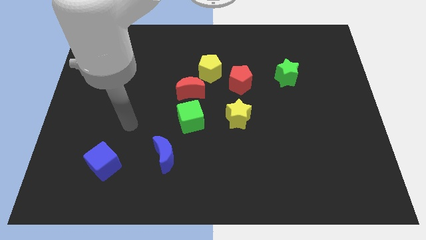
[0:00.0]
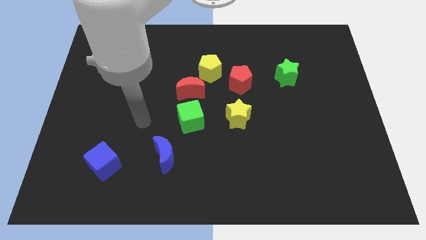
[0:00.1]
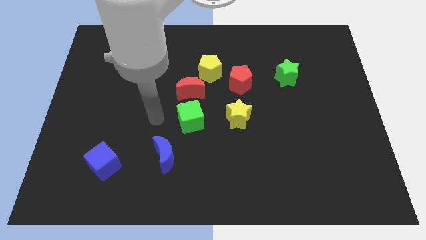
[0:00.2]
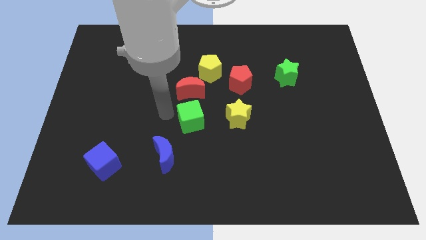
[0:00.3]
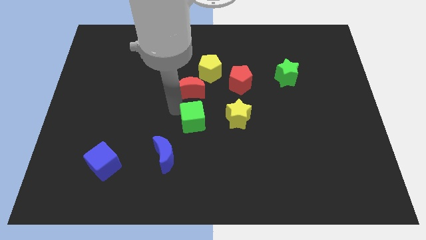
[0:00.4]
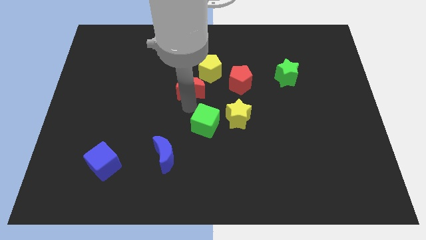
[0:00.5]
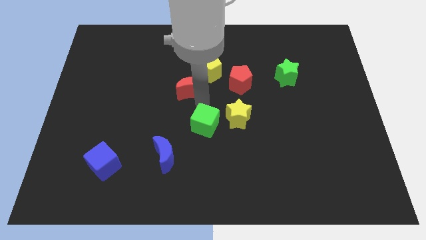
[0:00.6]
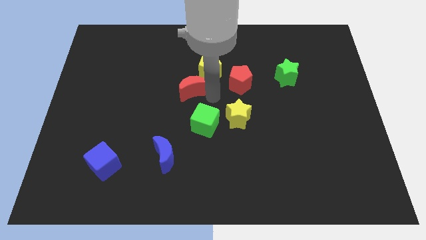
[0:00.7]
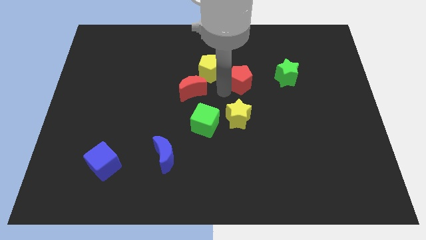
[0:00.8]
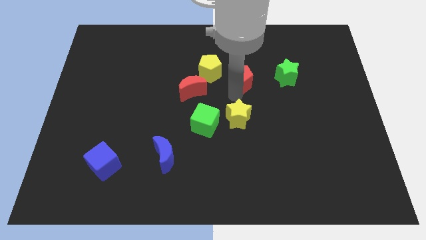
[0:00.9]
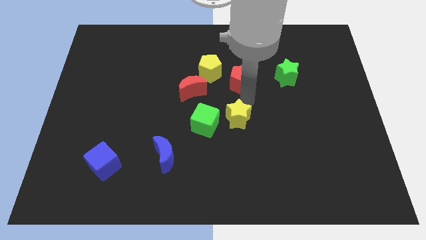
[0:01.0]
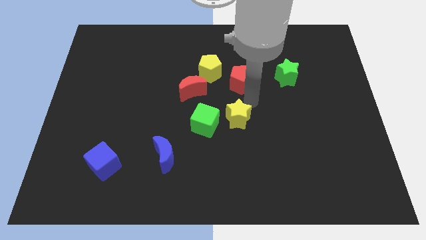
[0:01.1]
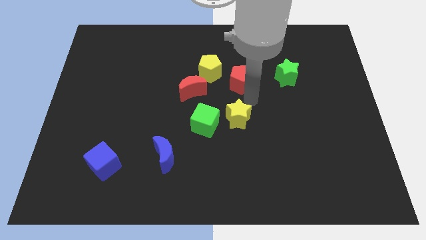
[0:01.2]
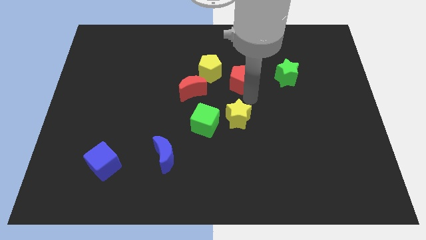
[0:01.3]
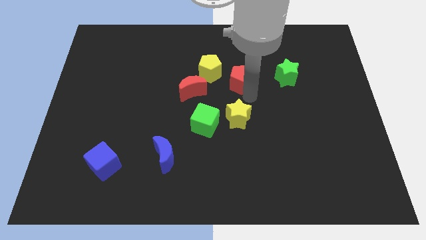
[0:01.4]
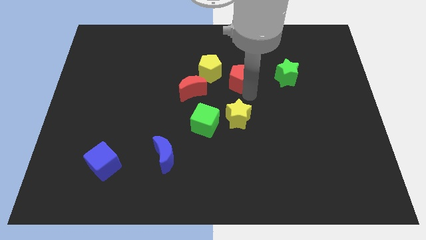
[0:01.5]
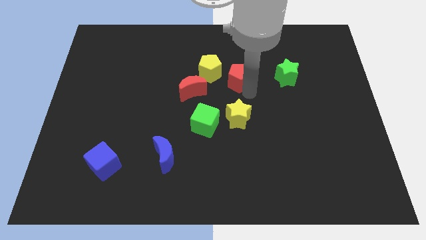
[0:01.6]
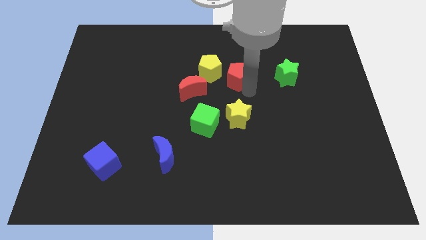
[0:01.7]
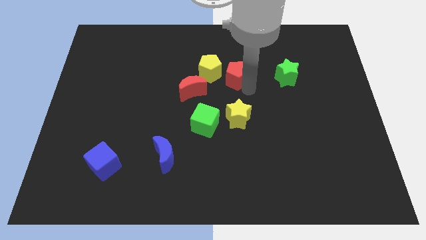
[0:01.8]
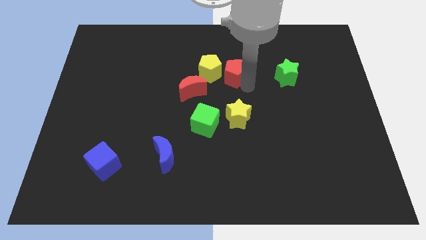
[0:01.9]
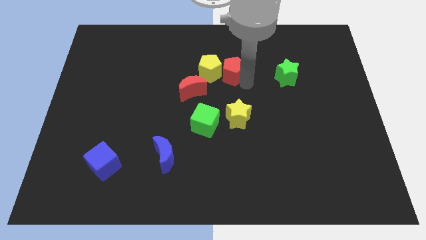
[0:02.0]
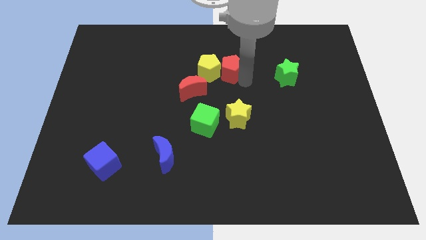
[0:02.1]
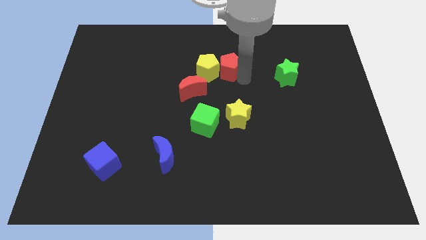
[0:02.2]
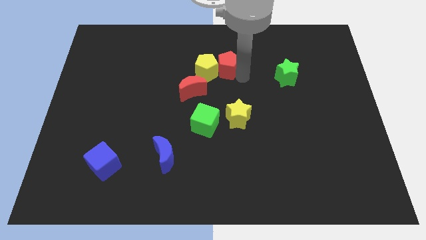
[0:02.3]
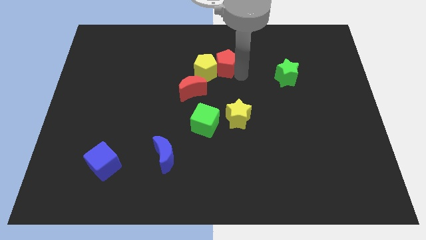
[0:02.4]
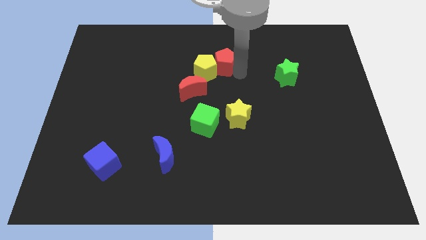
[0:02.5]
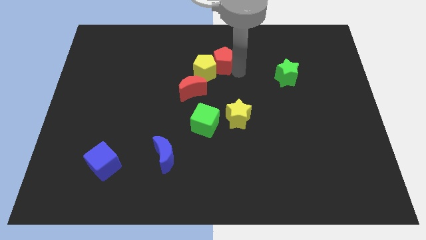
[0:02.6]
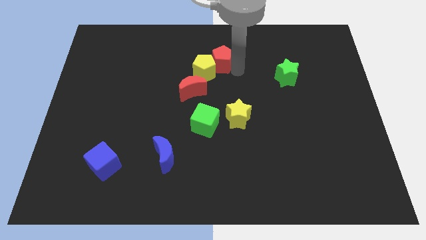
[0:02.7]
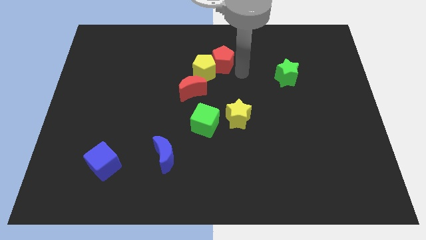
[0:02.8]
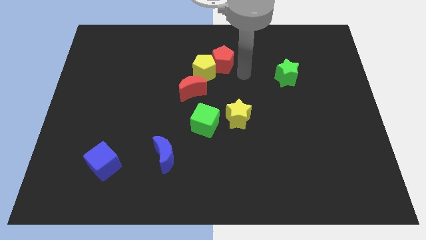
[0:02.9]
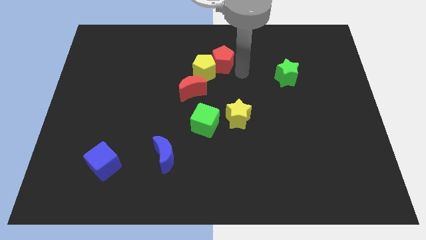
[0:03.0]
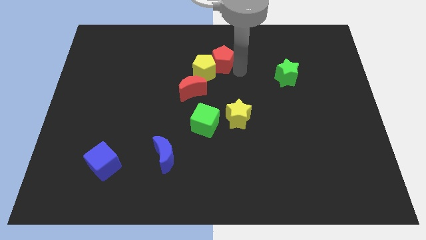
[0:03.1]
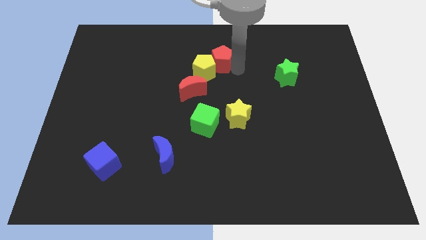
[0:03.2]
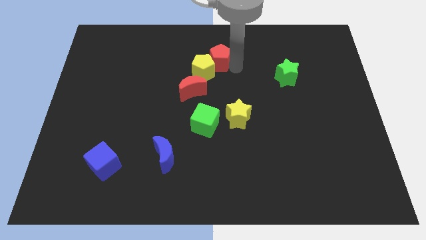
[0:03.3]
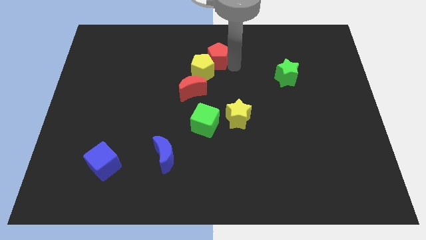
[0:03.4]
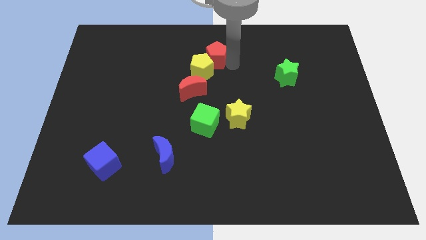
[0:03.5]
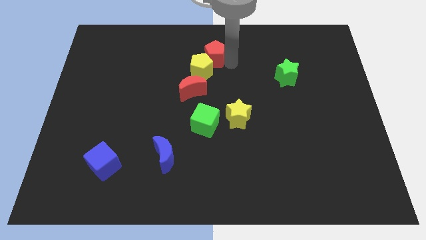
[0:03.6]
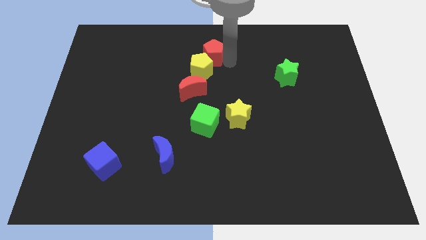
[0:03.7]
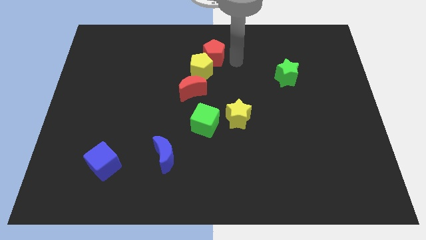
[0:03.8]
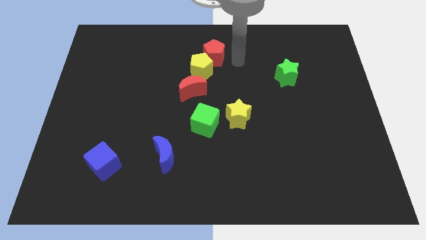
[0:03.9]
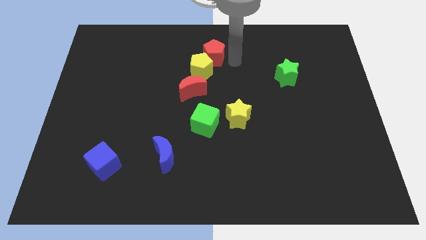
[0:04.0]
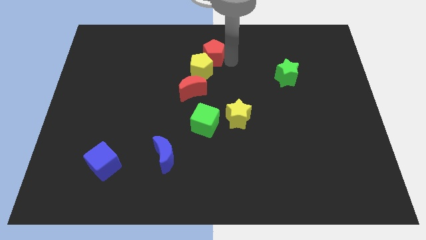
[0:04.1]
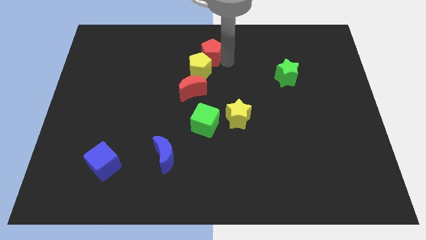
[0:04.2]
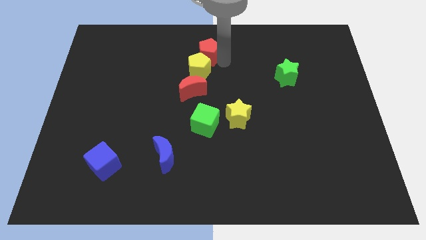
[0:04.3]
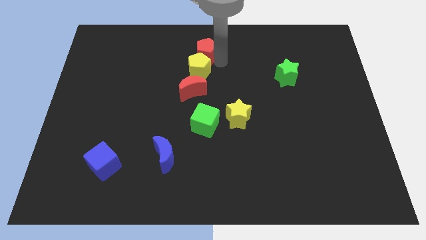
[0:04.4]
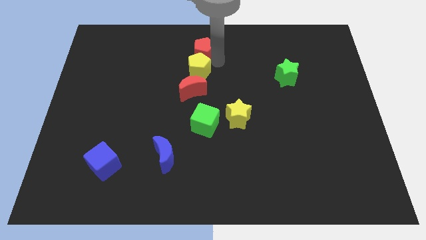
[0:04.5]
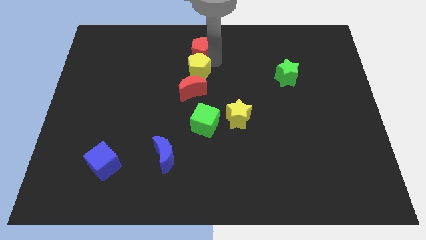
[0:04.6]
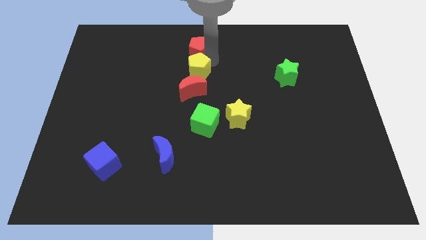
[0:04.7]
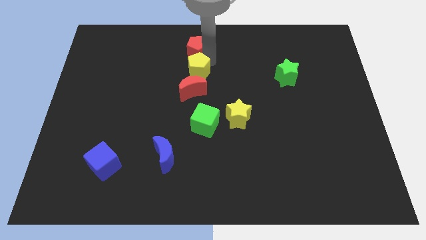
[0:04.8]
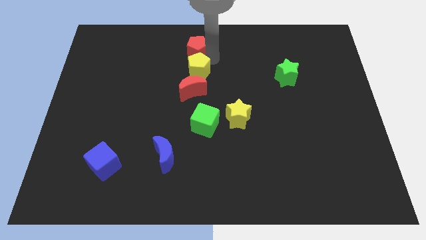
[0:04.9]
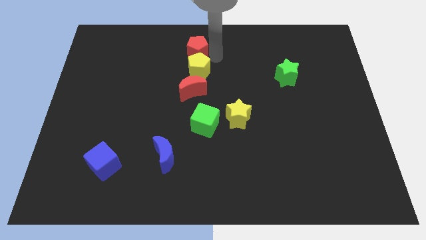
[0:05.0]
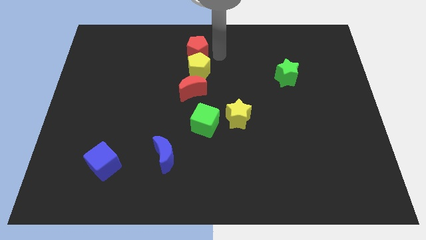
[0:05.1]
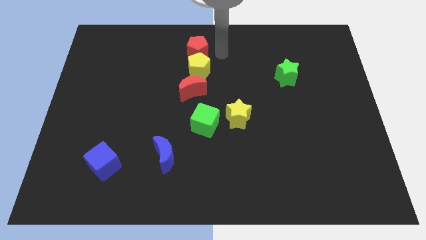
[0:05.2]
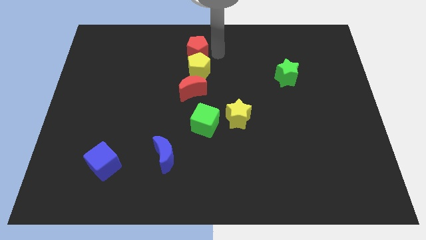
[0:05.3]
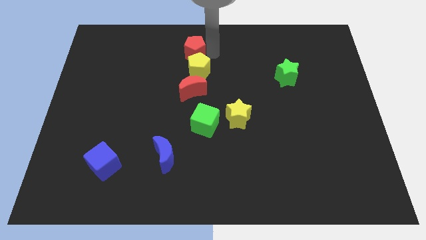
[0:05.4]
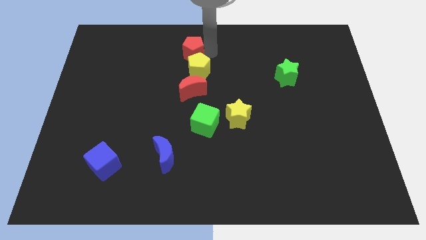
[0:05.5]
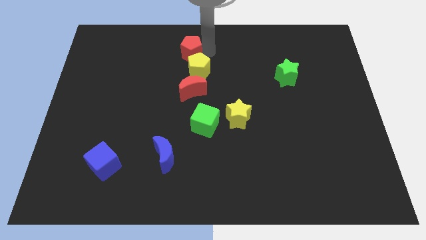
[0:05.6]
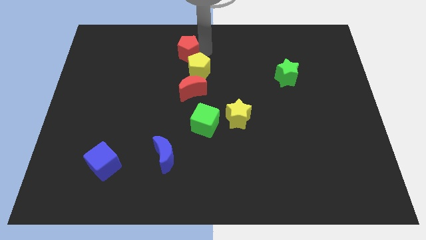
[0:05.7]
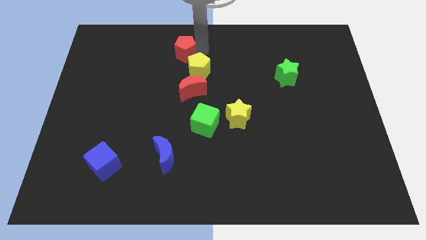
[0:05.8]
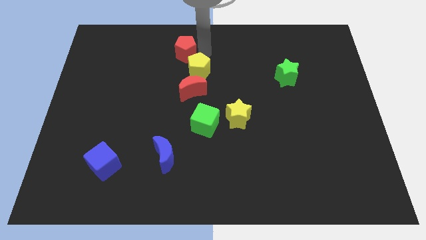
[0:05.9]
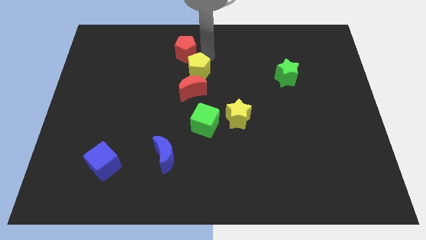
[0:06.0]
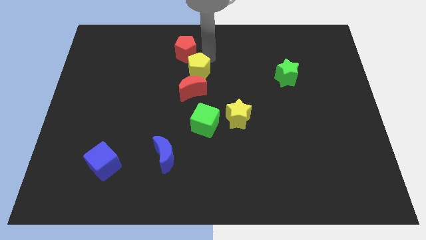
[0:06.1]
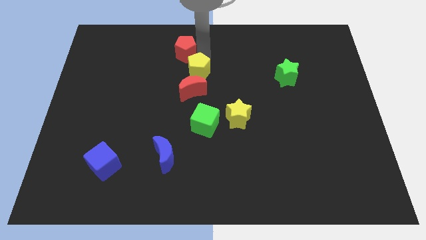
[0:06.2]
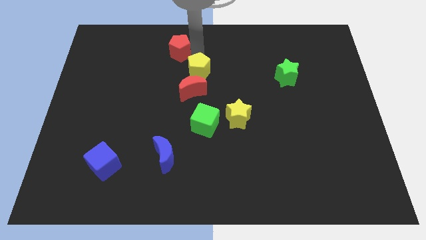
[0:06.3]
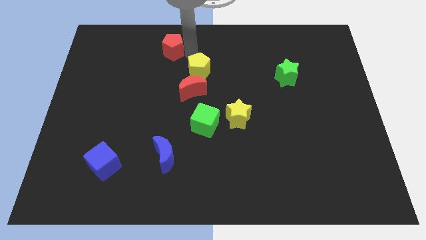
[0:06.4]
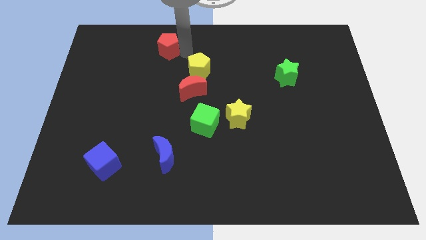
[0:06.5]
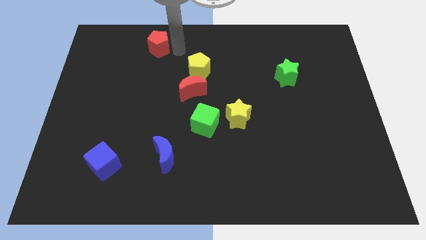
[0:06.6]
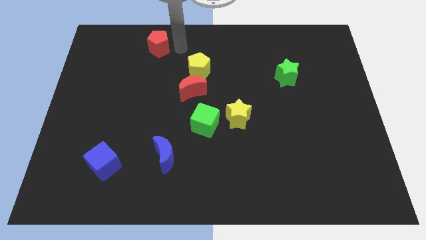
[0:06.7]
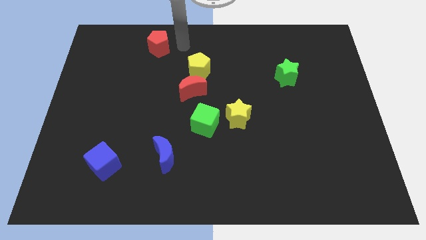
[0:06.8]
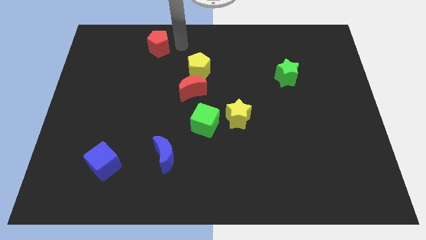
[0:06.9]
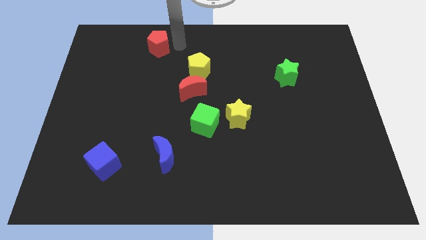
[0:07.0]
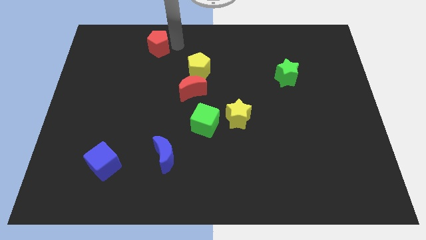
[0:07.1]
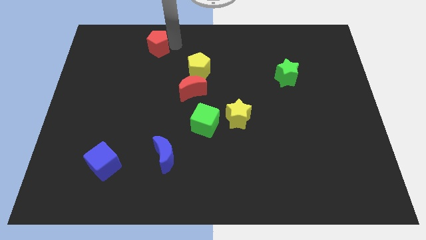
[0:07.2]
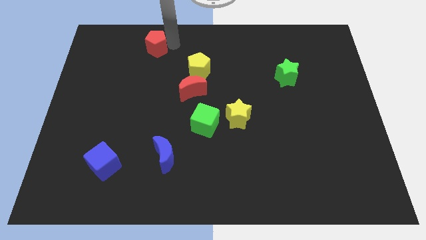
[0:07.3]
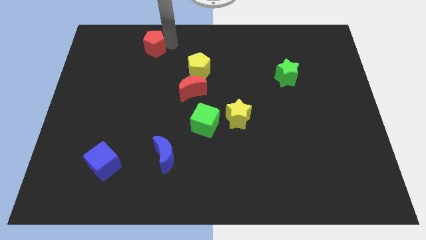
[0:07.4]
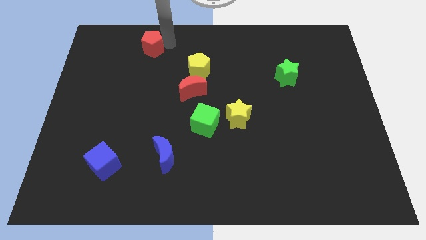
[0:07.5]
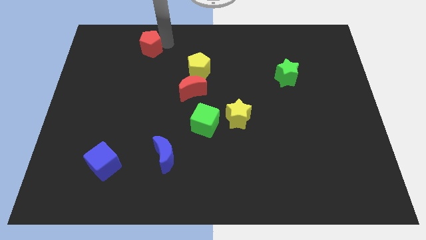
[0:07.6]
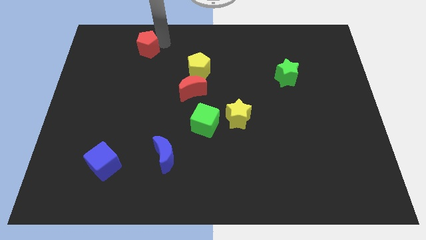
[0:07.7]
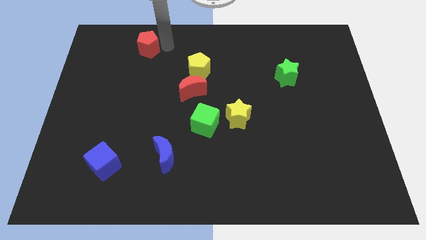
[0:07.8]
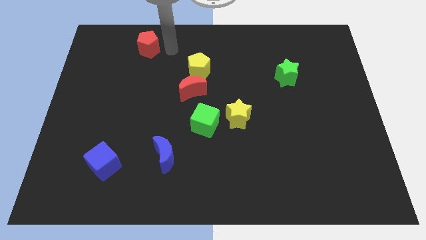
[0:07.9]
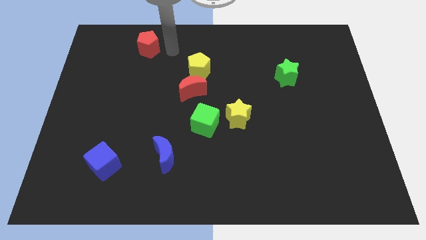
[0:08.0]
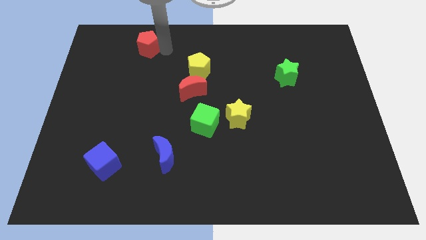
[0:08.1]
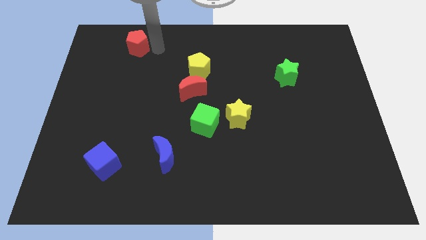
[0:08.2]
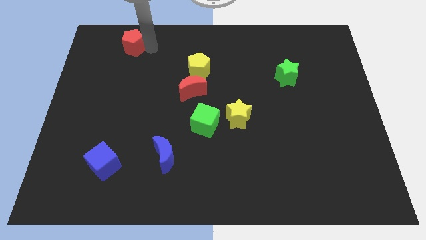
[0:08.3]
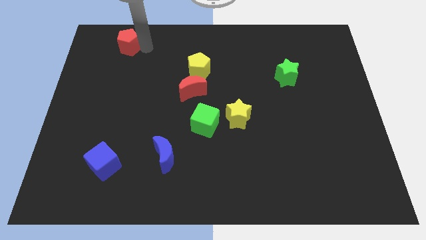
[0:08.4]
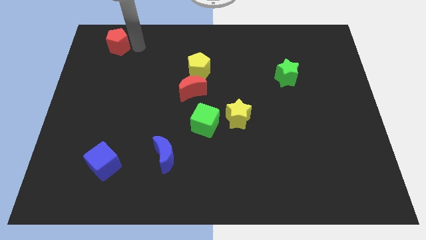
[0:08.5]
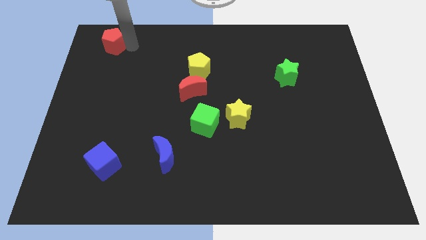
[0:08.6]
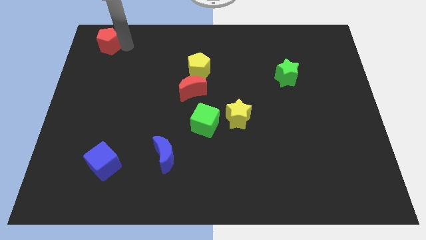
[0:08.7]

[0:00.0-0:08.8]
put the red pentagon to the upper left corner
